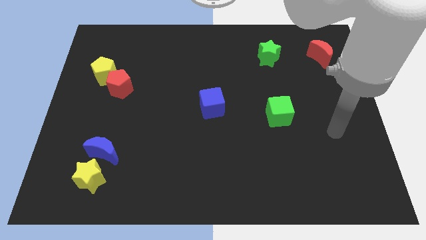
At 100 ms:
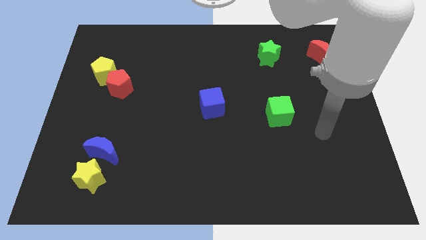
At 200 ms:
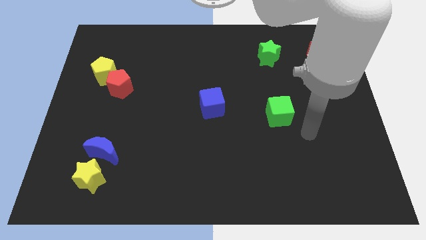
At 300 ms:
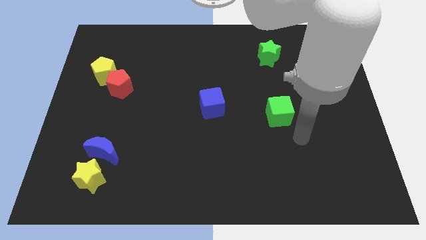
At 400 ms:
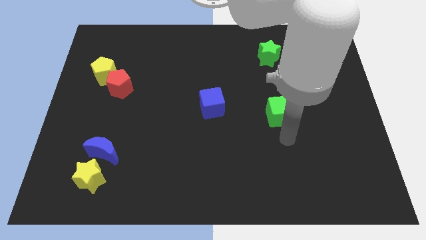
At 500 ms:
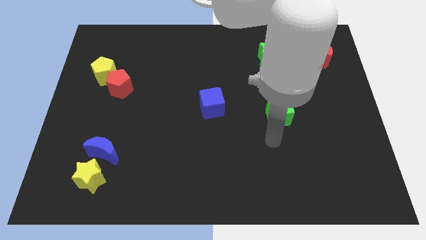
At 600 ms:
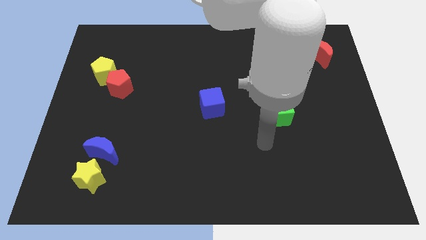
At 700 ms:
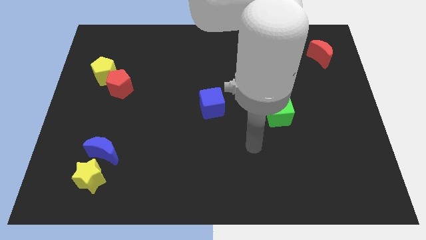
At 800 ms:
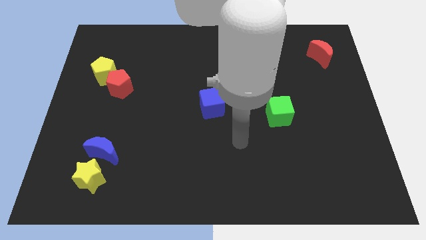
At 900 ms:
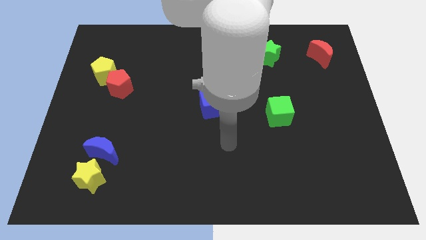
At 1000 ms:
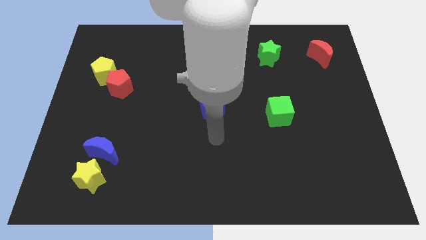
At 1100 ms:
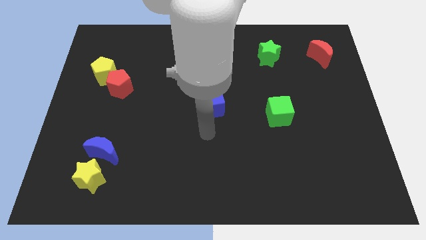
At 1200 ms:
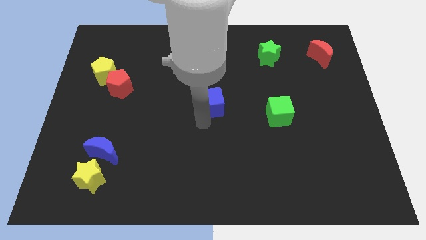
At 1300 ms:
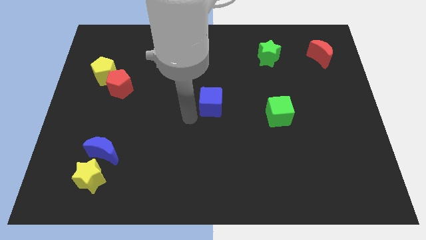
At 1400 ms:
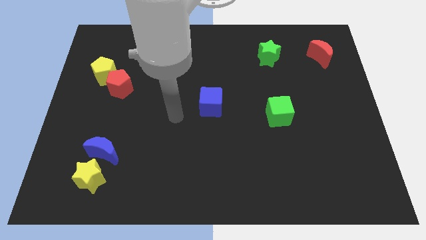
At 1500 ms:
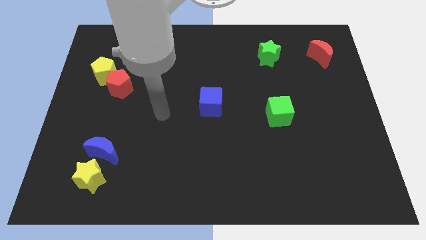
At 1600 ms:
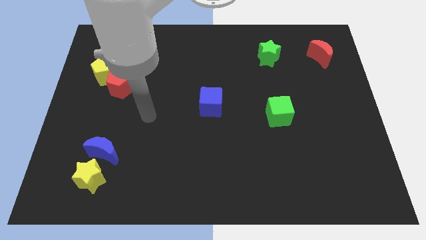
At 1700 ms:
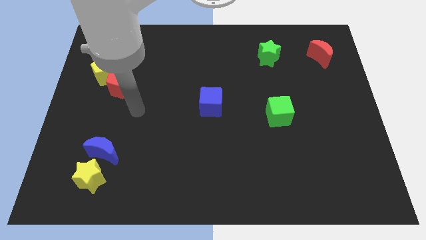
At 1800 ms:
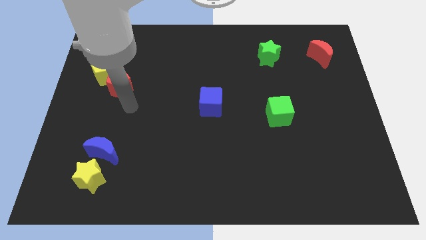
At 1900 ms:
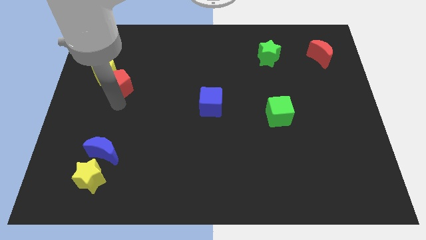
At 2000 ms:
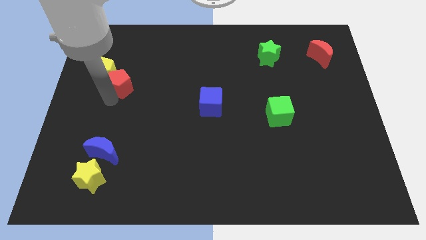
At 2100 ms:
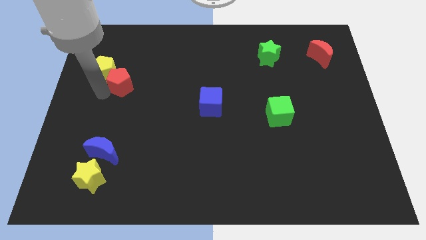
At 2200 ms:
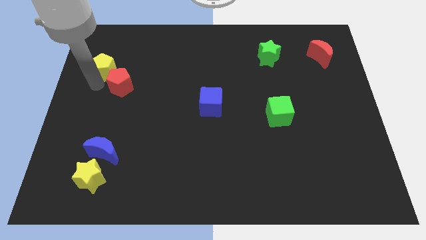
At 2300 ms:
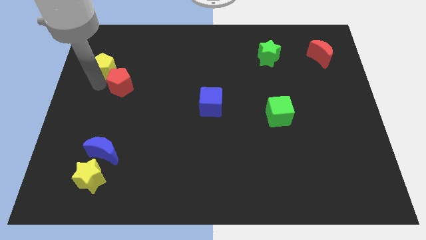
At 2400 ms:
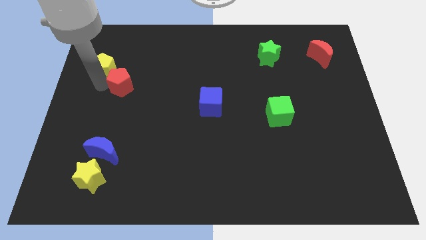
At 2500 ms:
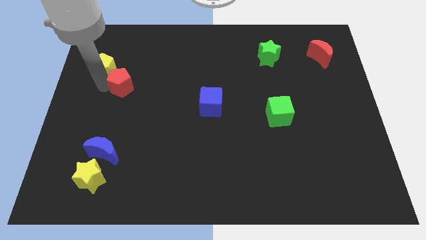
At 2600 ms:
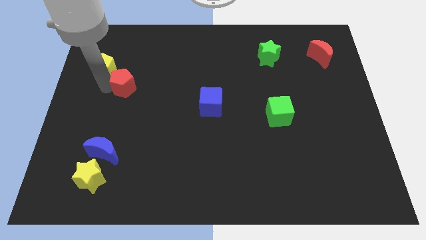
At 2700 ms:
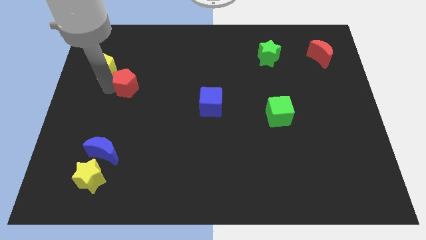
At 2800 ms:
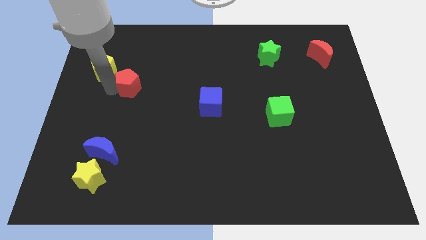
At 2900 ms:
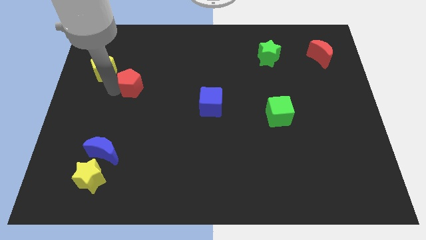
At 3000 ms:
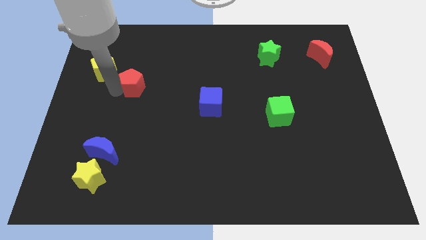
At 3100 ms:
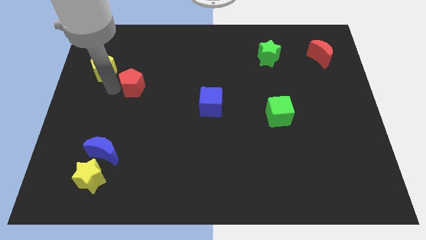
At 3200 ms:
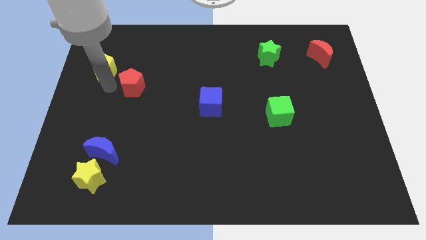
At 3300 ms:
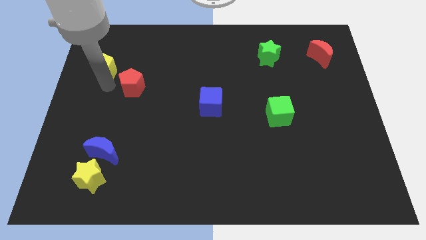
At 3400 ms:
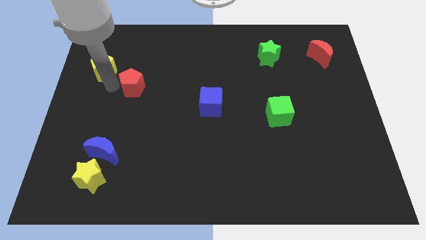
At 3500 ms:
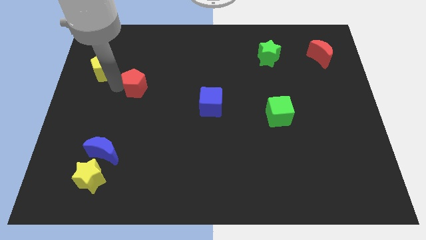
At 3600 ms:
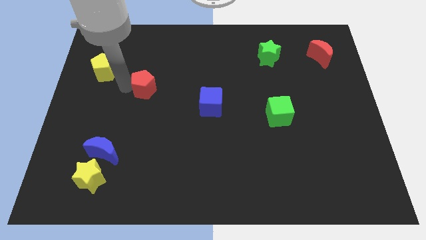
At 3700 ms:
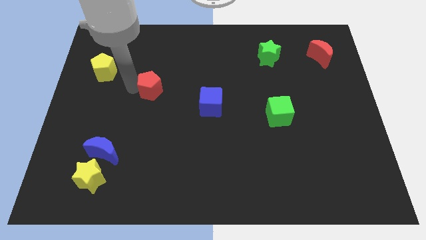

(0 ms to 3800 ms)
slightly move the red pentagon to the right

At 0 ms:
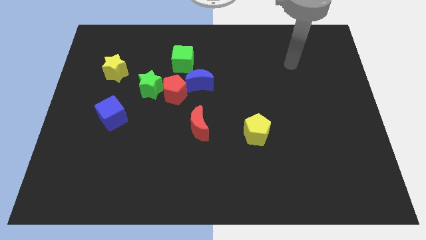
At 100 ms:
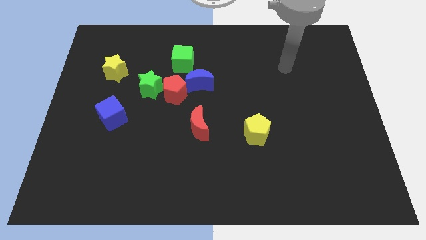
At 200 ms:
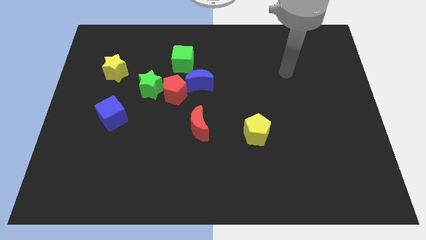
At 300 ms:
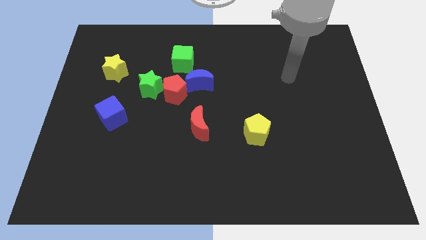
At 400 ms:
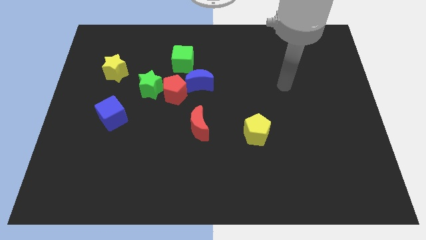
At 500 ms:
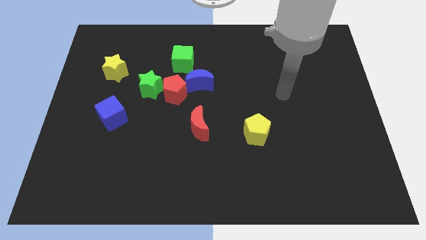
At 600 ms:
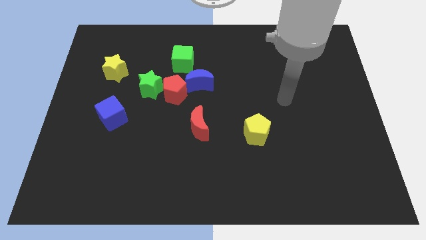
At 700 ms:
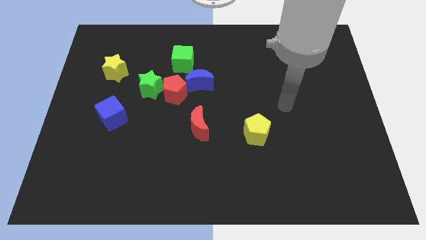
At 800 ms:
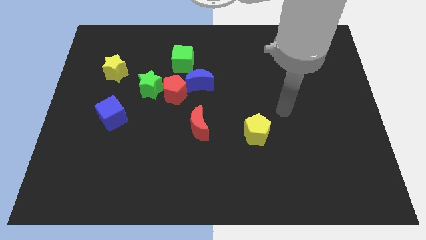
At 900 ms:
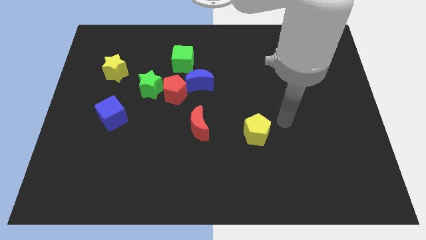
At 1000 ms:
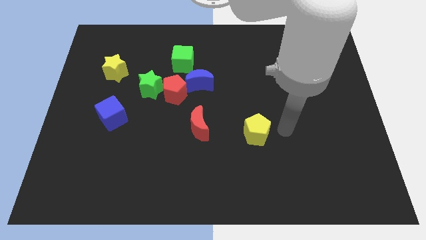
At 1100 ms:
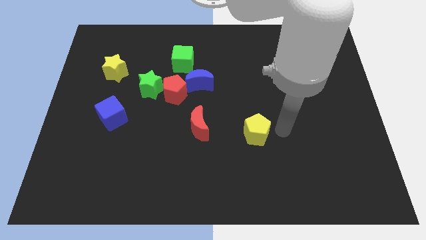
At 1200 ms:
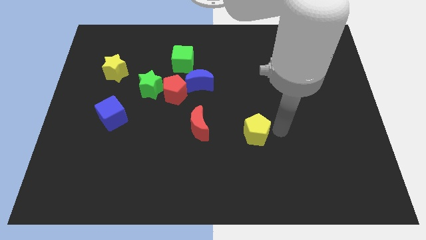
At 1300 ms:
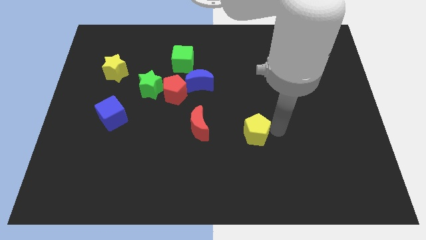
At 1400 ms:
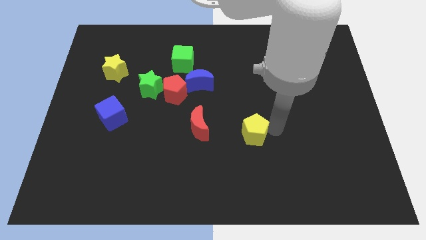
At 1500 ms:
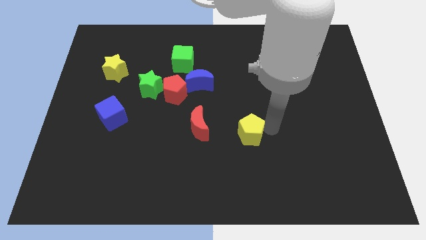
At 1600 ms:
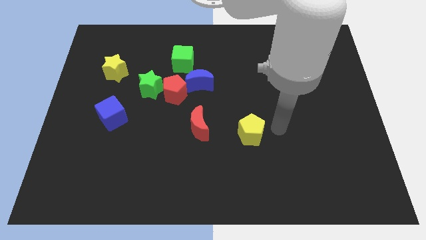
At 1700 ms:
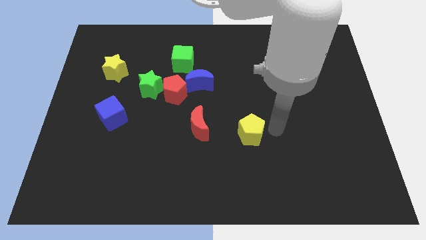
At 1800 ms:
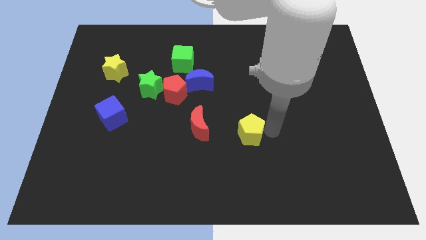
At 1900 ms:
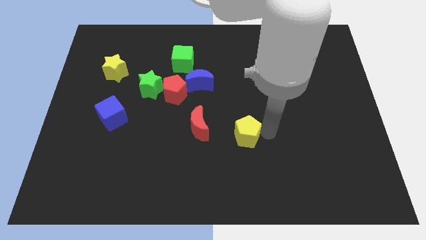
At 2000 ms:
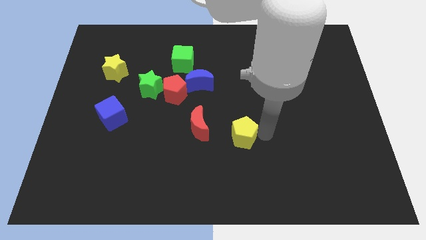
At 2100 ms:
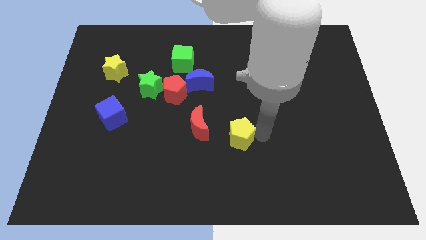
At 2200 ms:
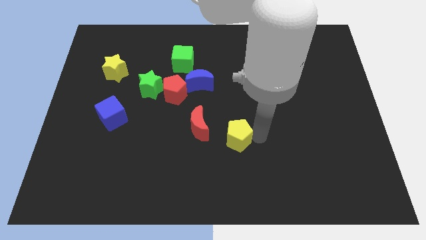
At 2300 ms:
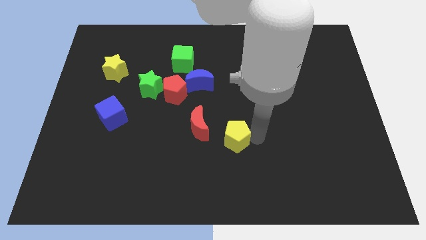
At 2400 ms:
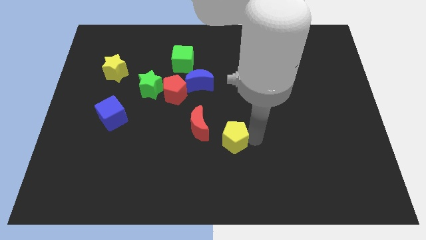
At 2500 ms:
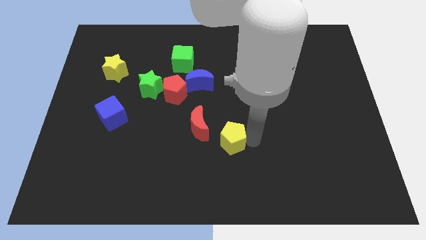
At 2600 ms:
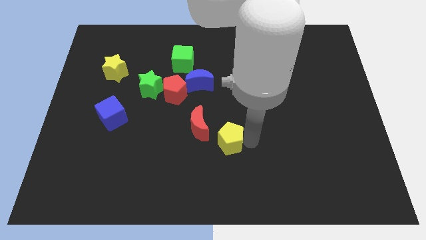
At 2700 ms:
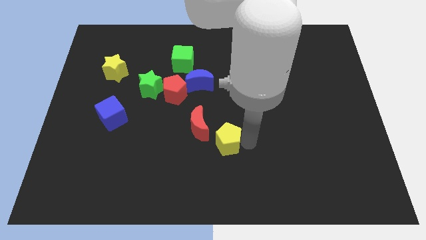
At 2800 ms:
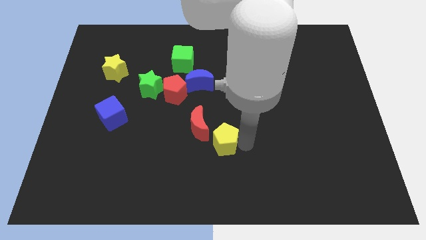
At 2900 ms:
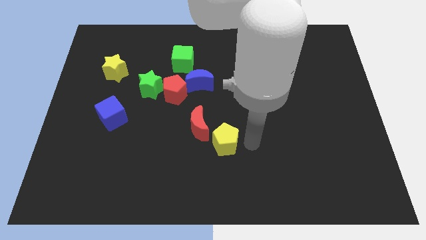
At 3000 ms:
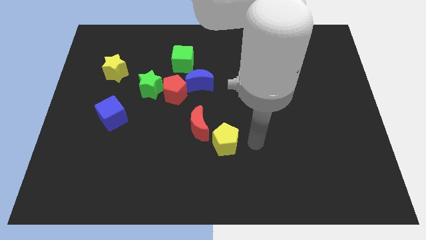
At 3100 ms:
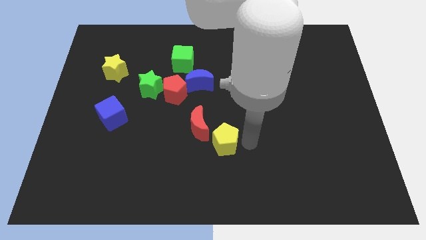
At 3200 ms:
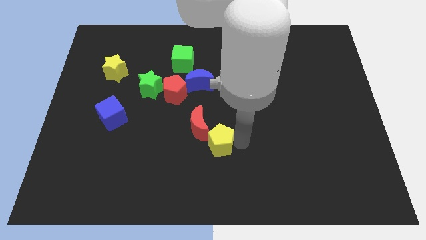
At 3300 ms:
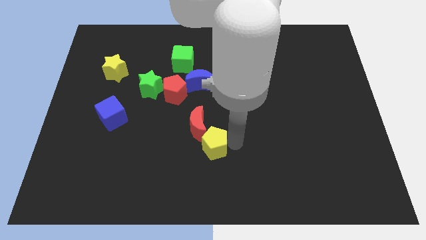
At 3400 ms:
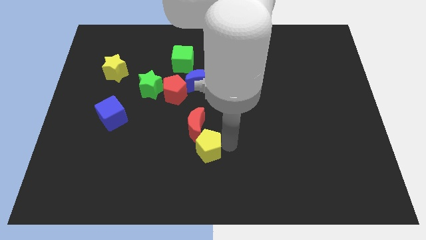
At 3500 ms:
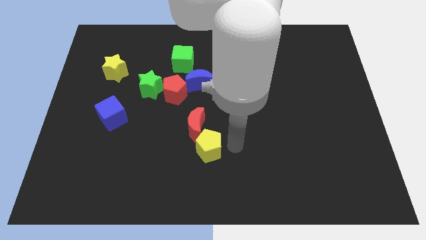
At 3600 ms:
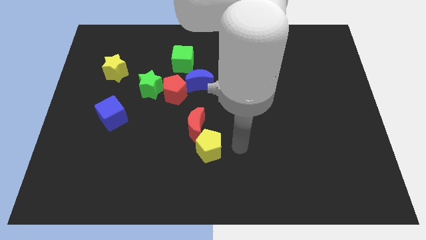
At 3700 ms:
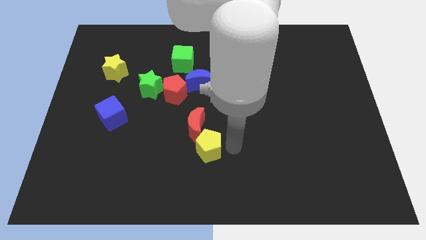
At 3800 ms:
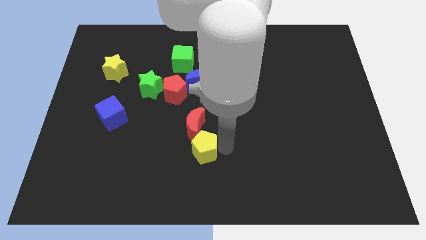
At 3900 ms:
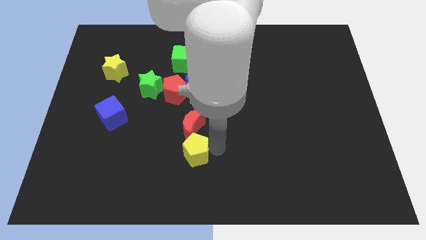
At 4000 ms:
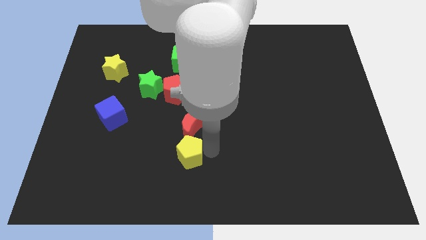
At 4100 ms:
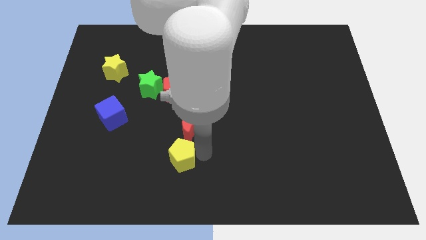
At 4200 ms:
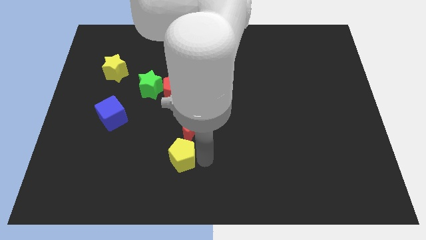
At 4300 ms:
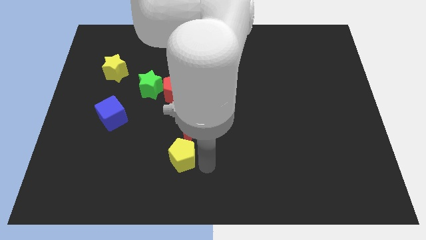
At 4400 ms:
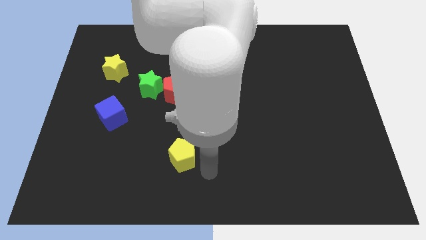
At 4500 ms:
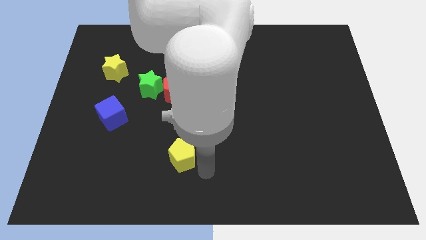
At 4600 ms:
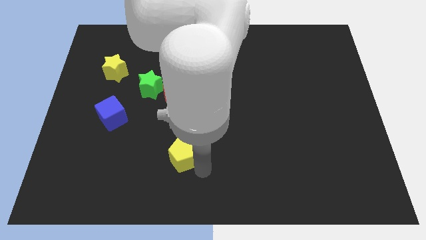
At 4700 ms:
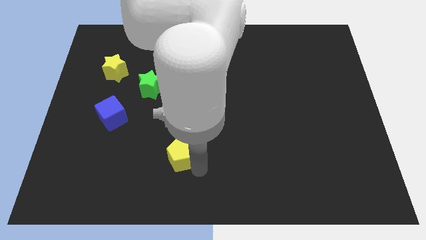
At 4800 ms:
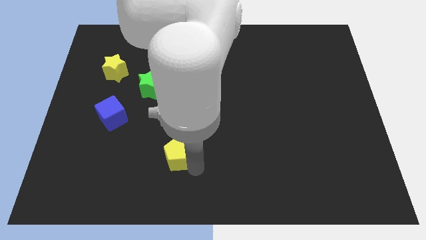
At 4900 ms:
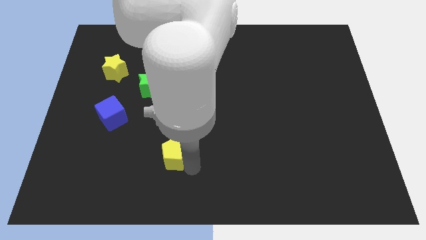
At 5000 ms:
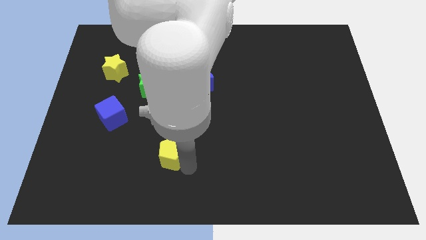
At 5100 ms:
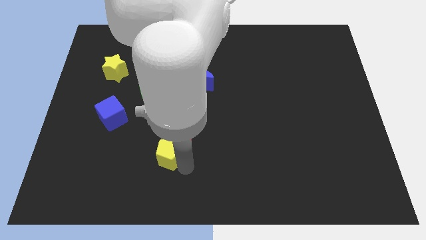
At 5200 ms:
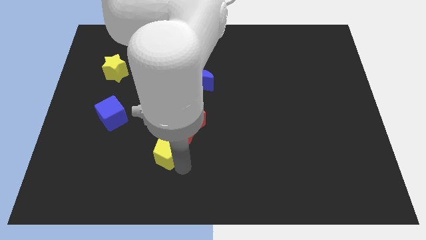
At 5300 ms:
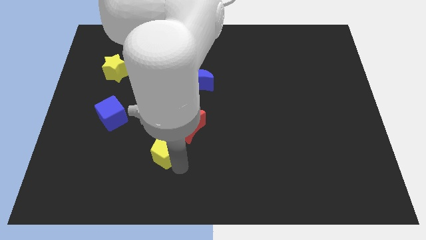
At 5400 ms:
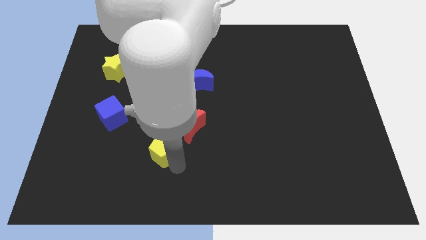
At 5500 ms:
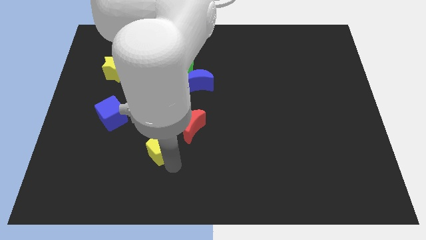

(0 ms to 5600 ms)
slide the yellow pentagon to the left
